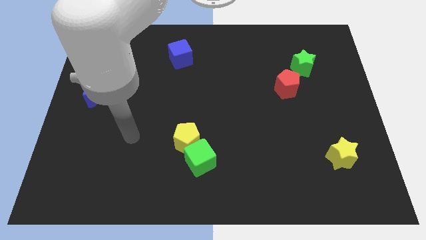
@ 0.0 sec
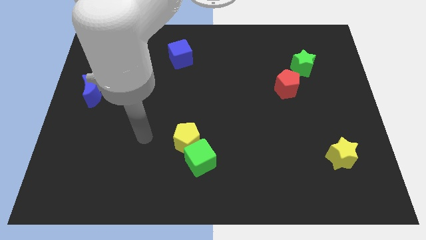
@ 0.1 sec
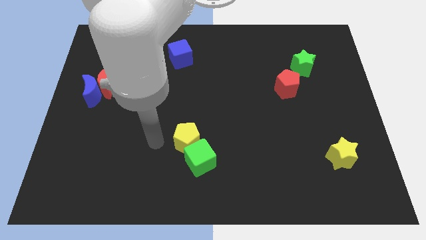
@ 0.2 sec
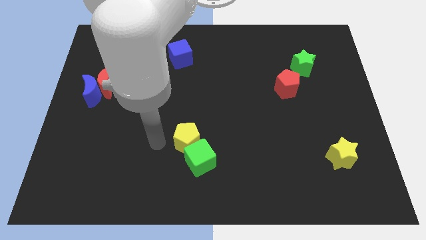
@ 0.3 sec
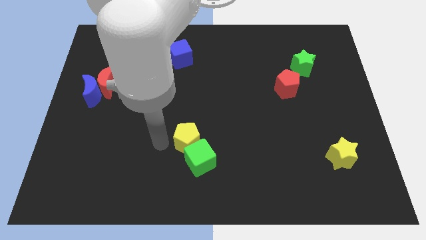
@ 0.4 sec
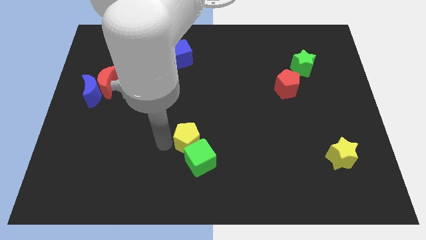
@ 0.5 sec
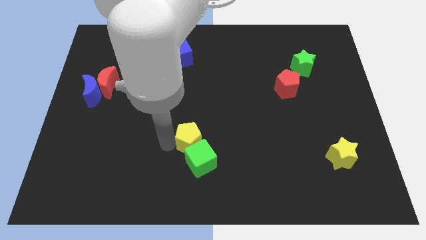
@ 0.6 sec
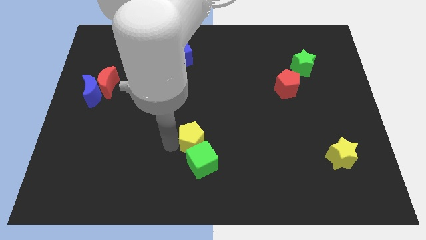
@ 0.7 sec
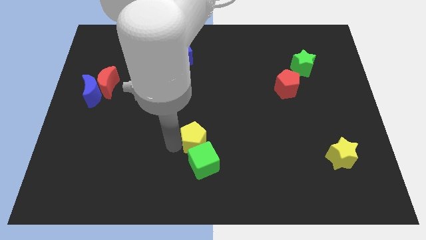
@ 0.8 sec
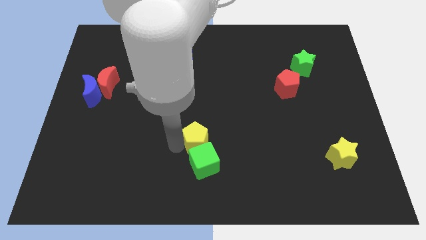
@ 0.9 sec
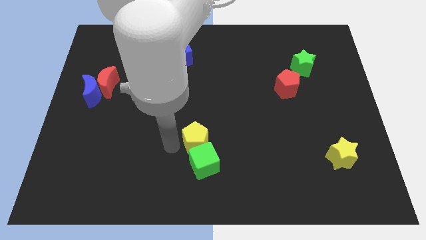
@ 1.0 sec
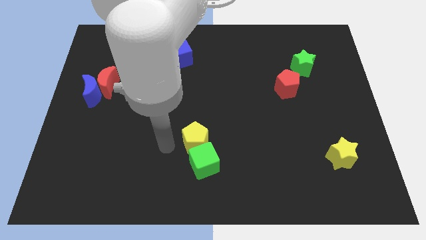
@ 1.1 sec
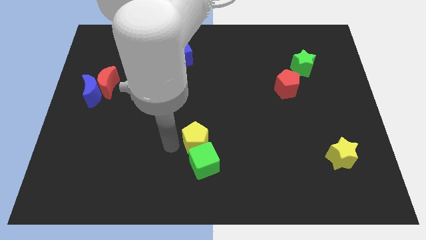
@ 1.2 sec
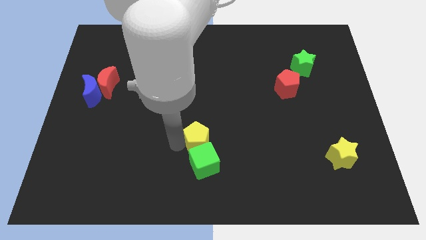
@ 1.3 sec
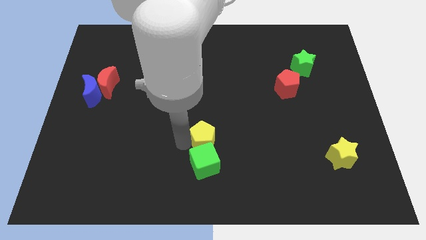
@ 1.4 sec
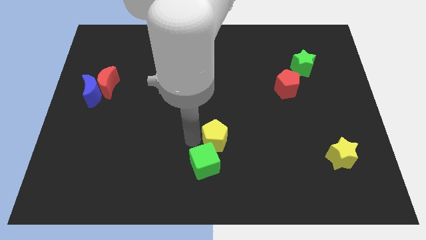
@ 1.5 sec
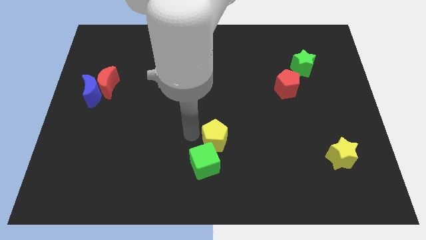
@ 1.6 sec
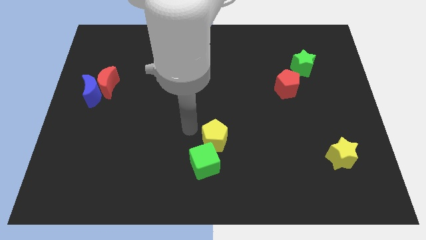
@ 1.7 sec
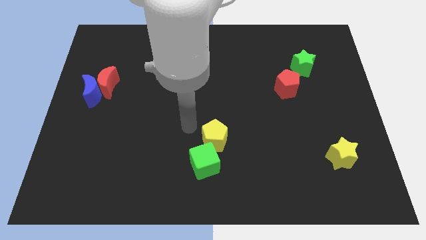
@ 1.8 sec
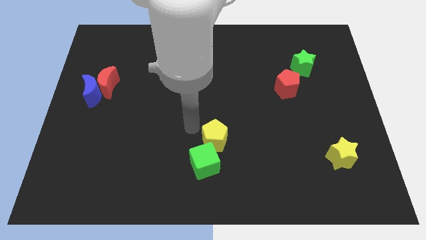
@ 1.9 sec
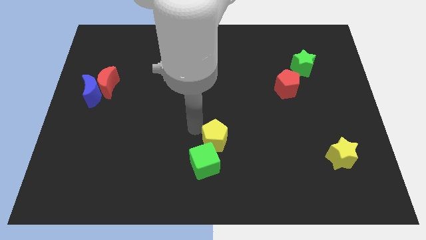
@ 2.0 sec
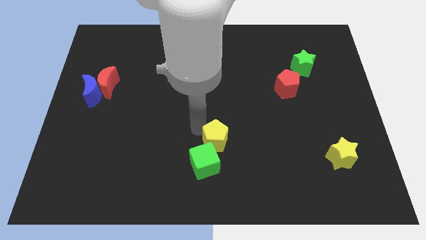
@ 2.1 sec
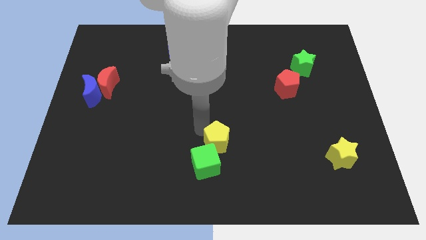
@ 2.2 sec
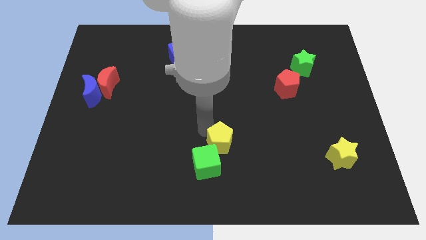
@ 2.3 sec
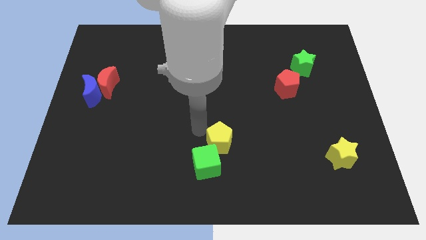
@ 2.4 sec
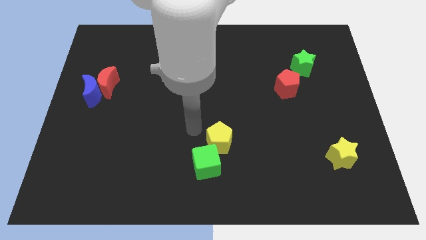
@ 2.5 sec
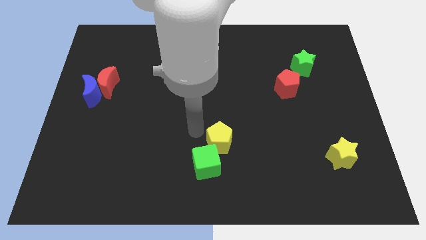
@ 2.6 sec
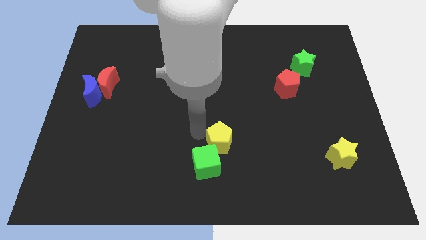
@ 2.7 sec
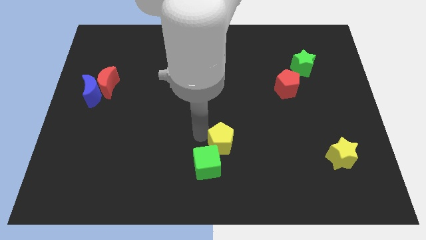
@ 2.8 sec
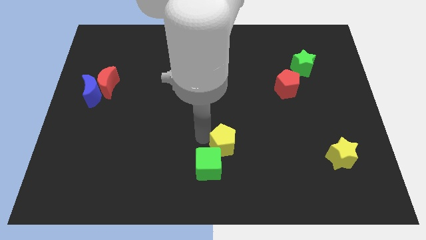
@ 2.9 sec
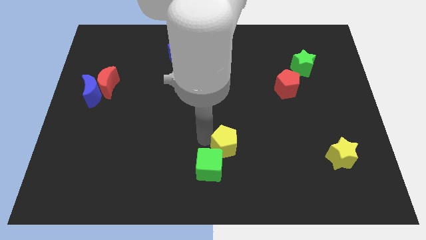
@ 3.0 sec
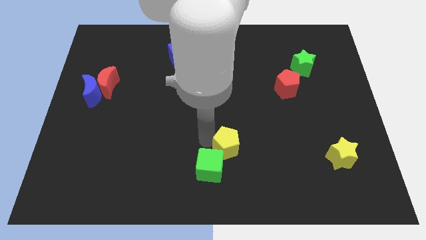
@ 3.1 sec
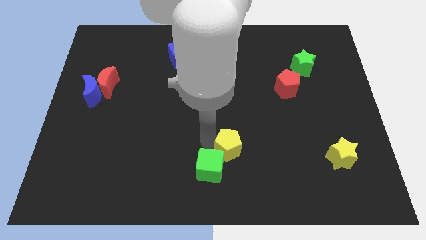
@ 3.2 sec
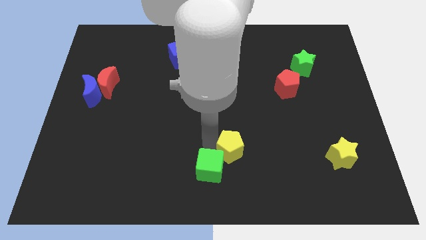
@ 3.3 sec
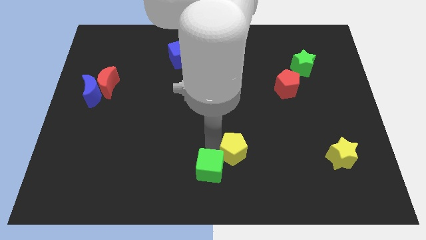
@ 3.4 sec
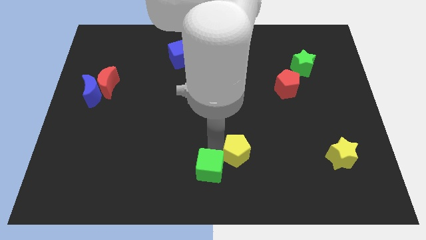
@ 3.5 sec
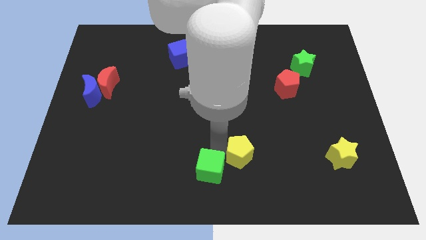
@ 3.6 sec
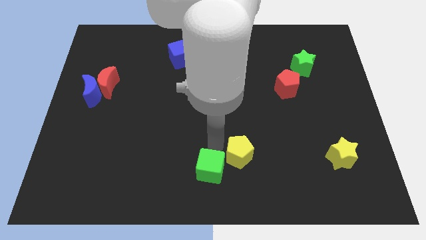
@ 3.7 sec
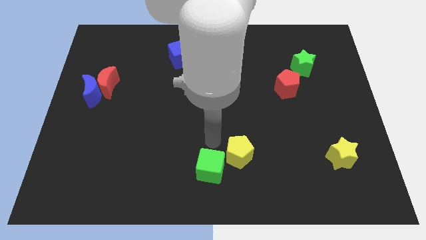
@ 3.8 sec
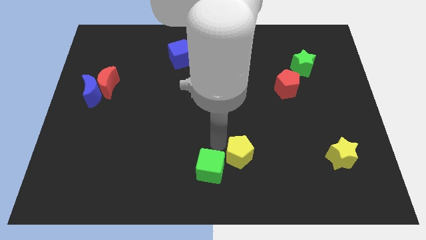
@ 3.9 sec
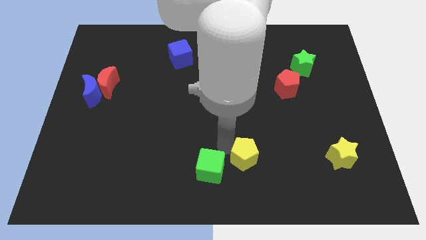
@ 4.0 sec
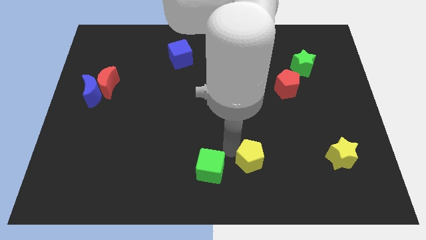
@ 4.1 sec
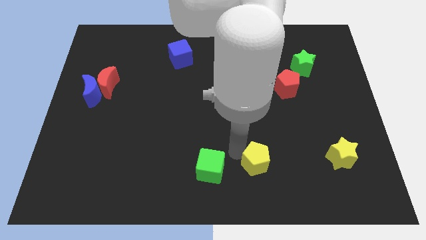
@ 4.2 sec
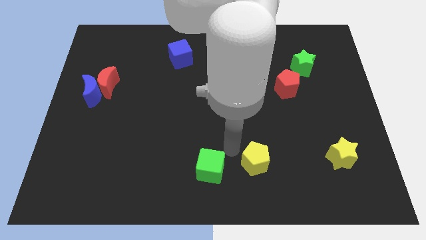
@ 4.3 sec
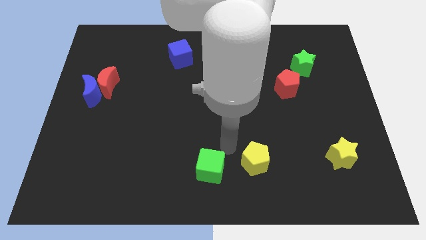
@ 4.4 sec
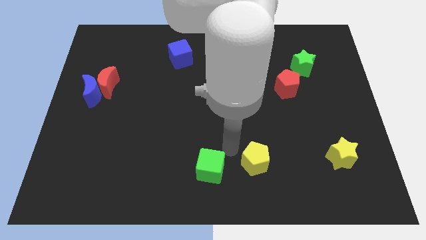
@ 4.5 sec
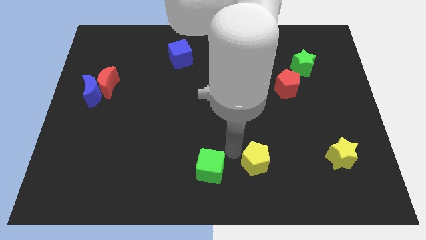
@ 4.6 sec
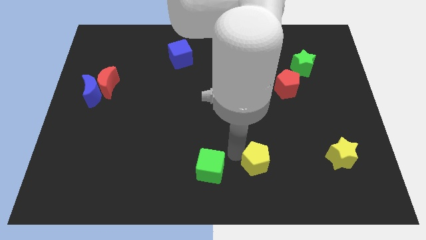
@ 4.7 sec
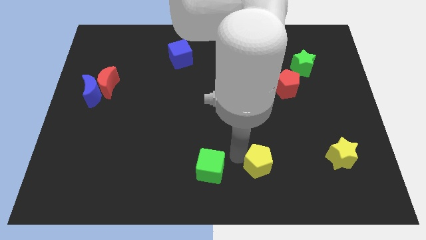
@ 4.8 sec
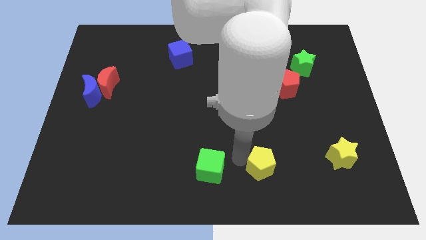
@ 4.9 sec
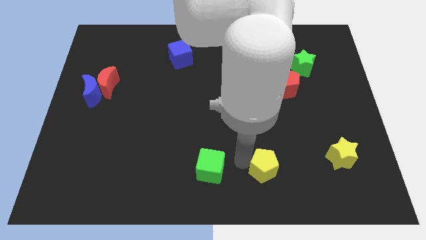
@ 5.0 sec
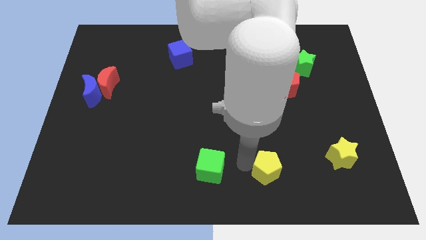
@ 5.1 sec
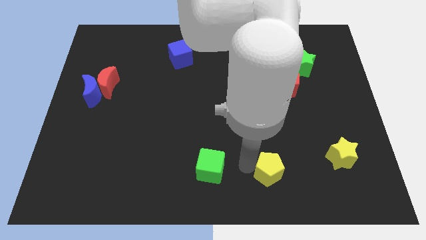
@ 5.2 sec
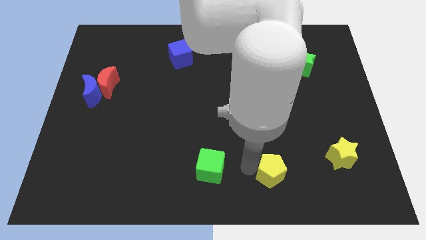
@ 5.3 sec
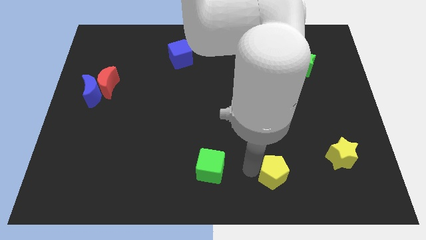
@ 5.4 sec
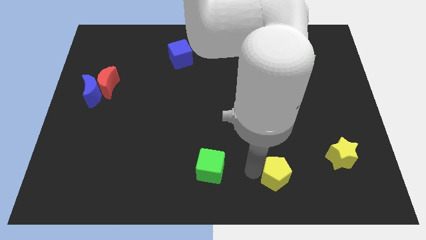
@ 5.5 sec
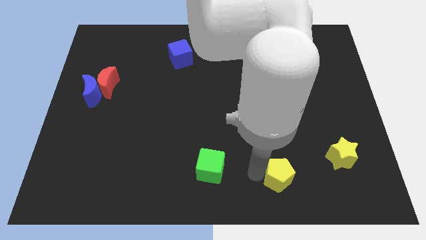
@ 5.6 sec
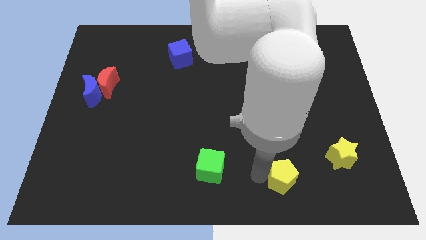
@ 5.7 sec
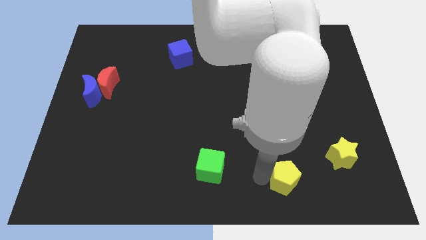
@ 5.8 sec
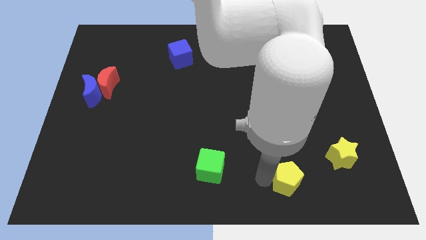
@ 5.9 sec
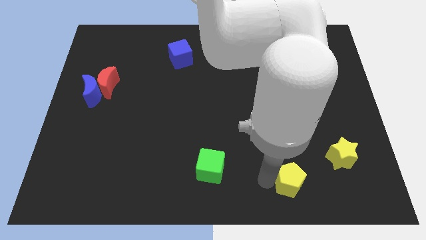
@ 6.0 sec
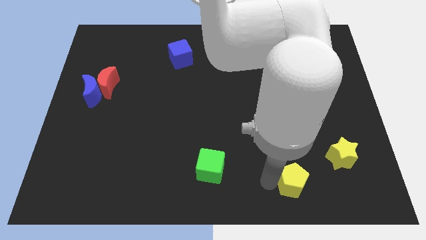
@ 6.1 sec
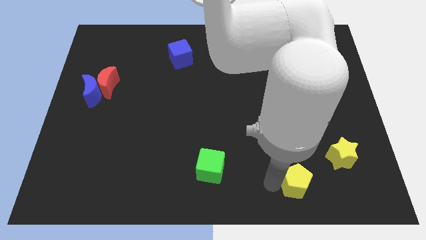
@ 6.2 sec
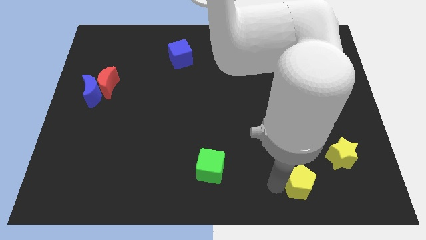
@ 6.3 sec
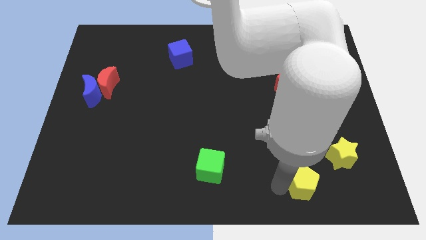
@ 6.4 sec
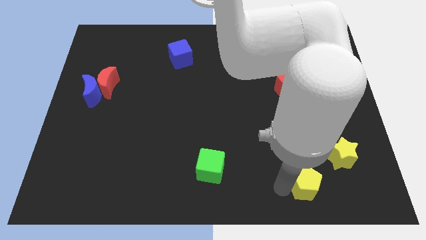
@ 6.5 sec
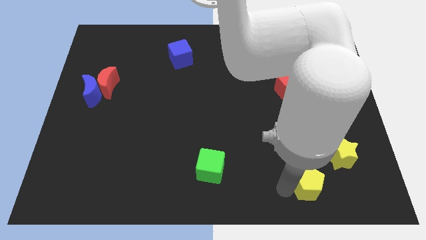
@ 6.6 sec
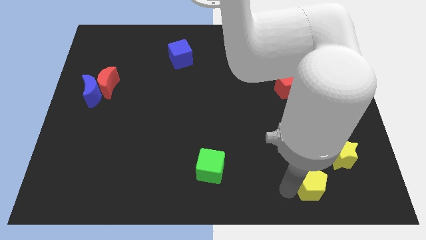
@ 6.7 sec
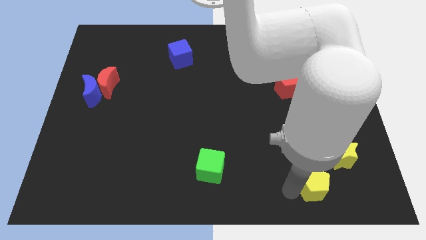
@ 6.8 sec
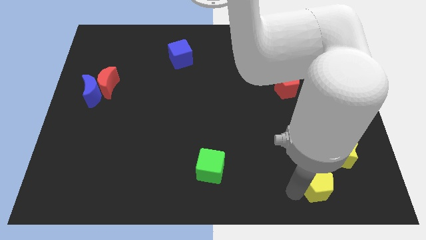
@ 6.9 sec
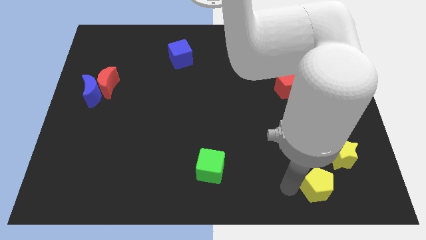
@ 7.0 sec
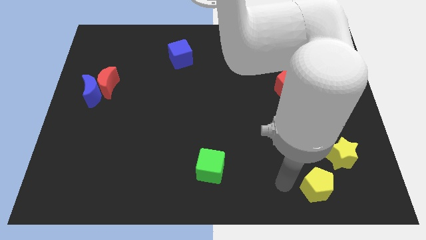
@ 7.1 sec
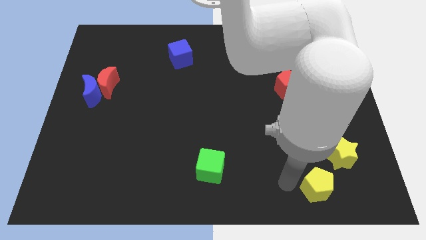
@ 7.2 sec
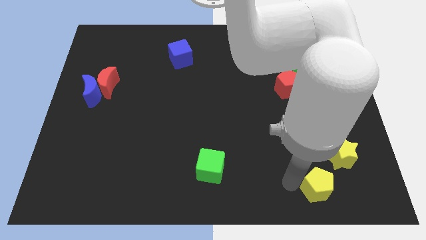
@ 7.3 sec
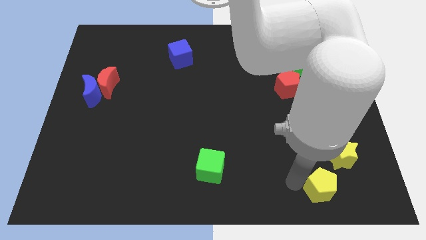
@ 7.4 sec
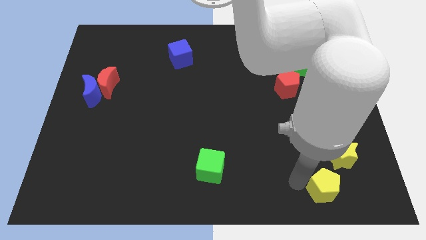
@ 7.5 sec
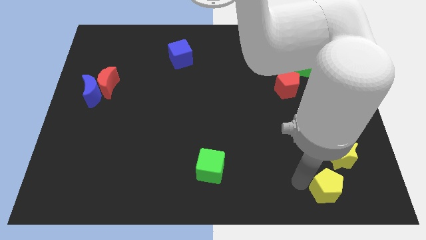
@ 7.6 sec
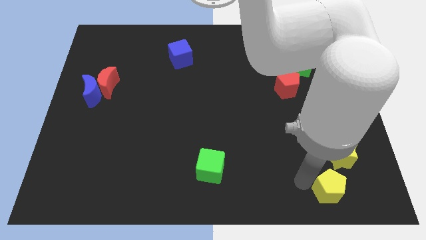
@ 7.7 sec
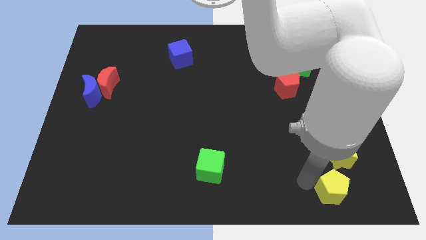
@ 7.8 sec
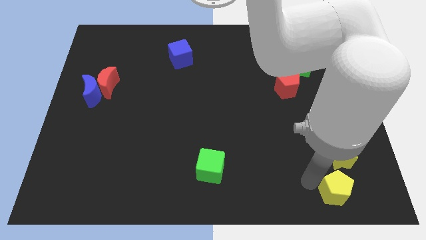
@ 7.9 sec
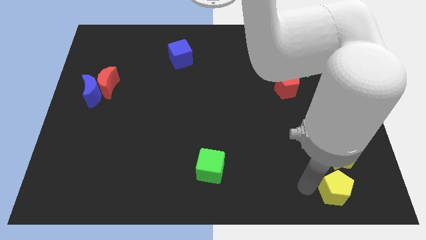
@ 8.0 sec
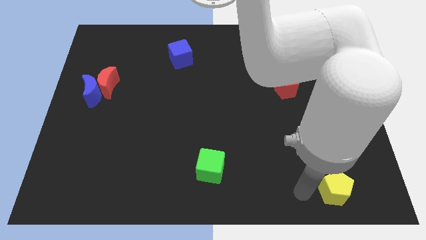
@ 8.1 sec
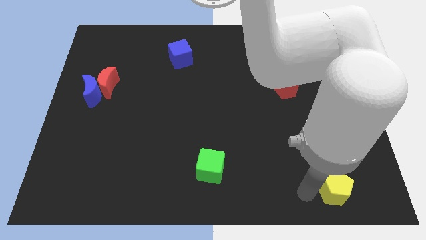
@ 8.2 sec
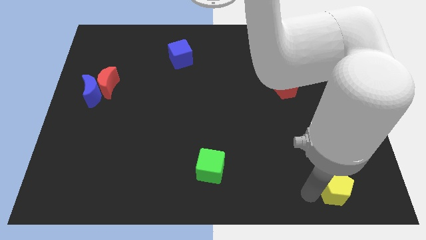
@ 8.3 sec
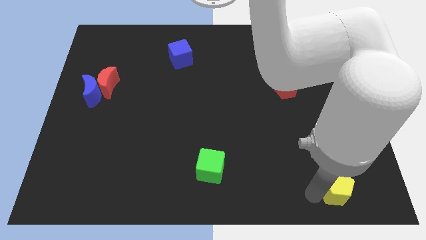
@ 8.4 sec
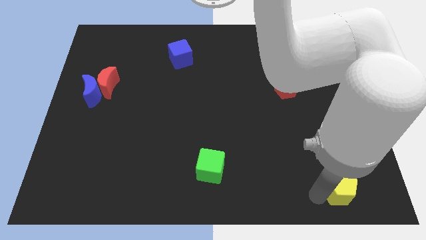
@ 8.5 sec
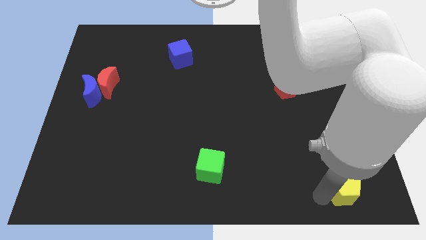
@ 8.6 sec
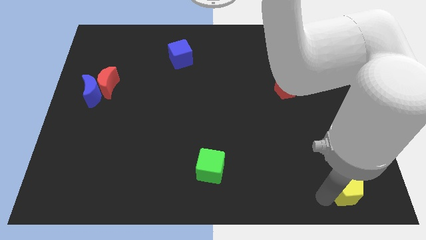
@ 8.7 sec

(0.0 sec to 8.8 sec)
move the yellow pentagon to the bottom right
